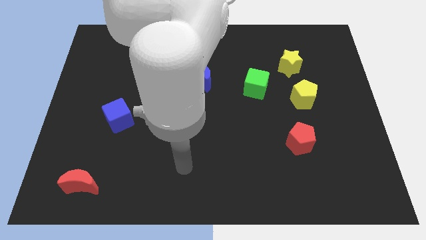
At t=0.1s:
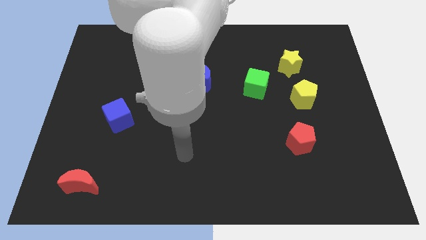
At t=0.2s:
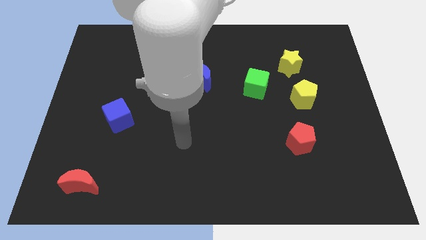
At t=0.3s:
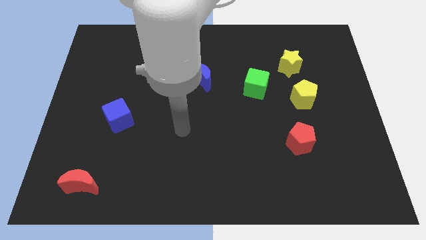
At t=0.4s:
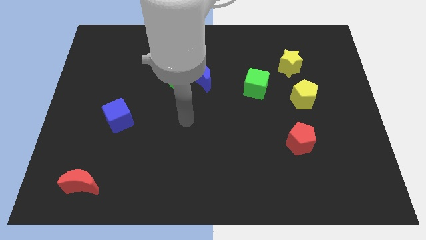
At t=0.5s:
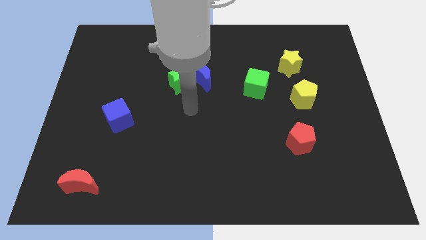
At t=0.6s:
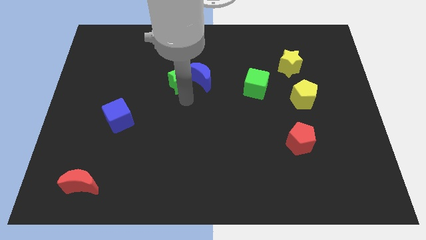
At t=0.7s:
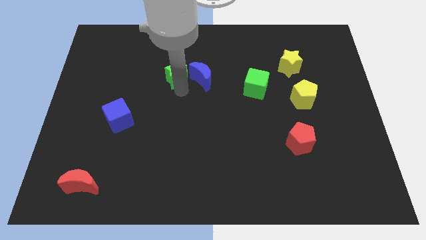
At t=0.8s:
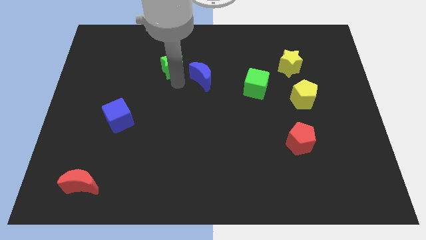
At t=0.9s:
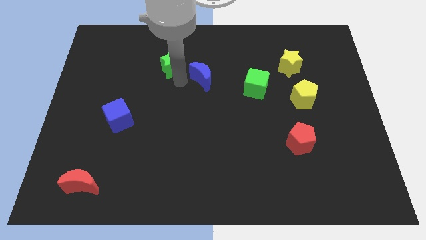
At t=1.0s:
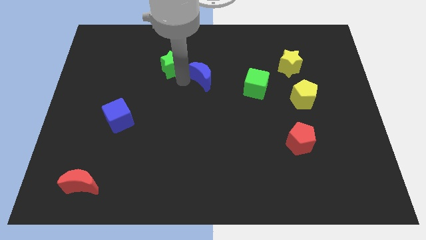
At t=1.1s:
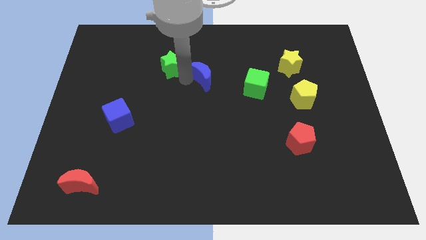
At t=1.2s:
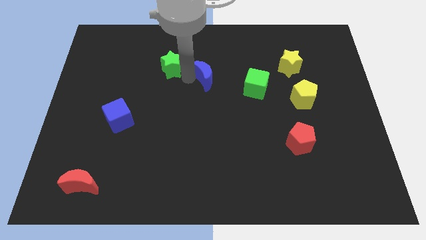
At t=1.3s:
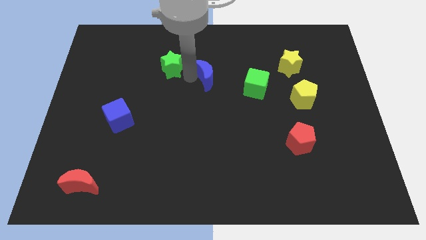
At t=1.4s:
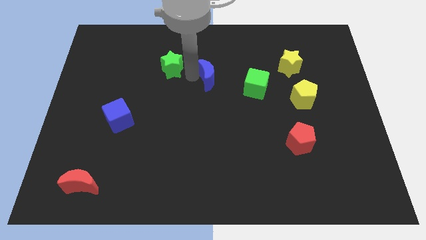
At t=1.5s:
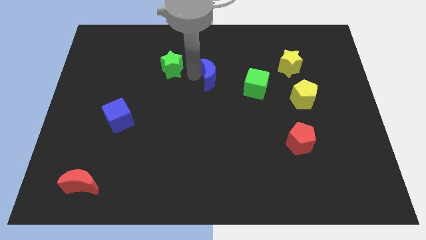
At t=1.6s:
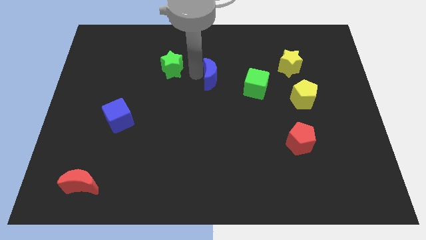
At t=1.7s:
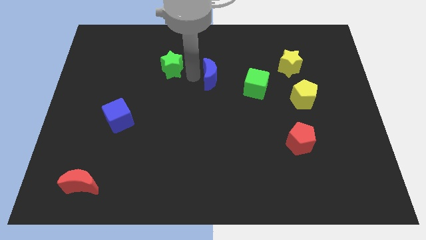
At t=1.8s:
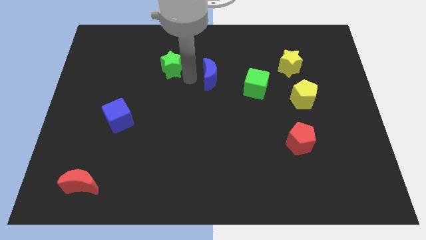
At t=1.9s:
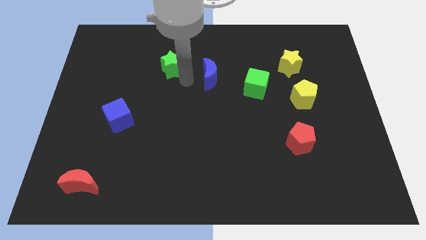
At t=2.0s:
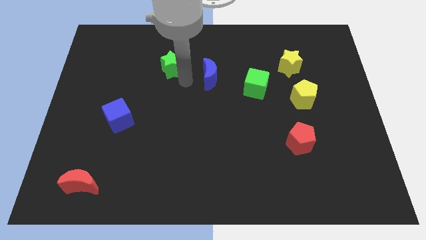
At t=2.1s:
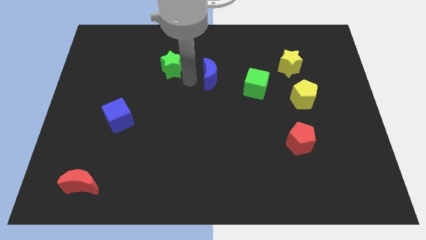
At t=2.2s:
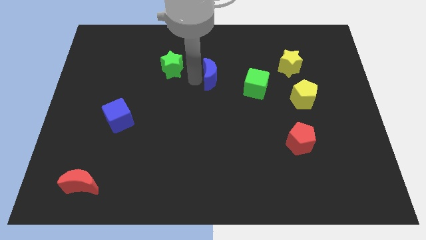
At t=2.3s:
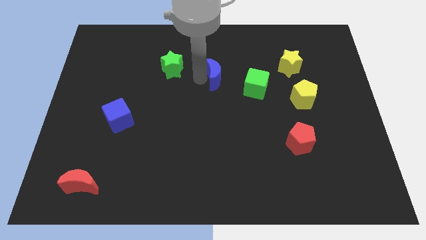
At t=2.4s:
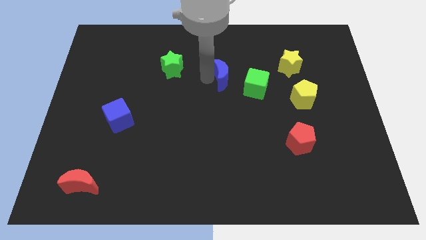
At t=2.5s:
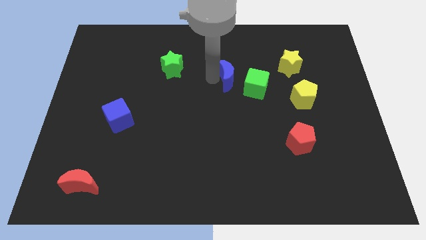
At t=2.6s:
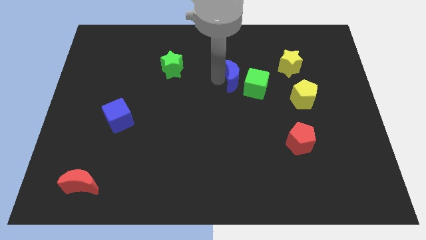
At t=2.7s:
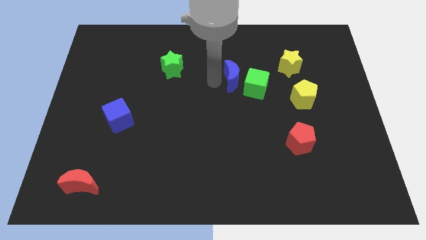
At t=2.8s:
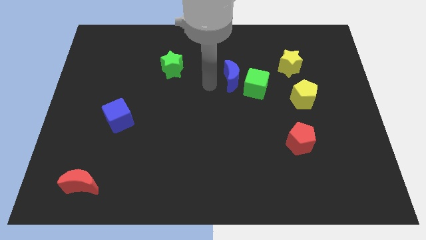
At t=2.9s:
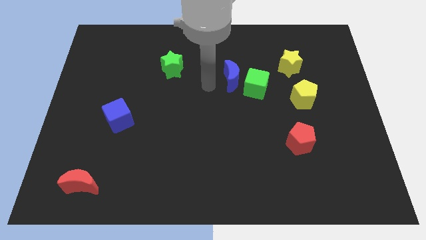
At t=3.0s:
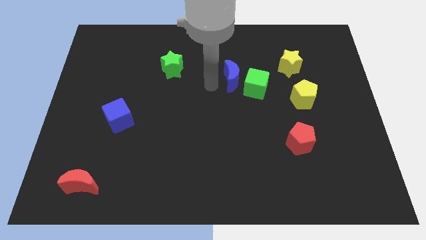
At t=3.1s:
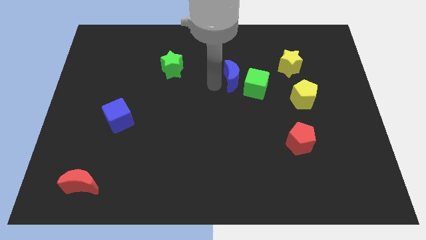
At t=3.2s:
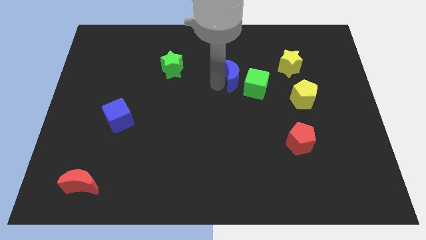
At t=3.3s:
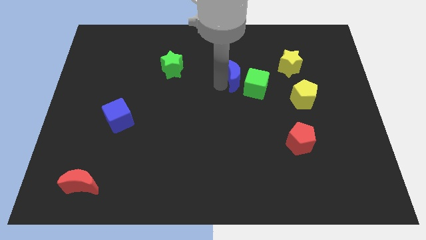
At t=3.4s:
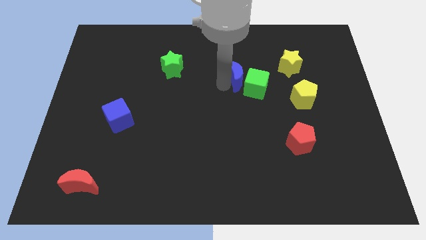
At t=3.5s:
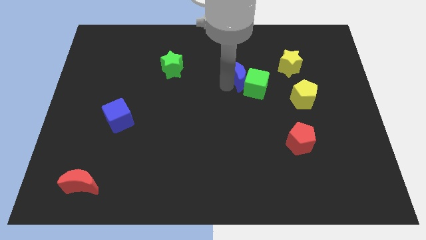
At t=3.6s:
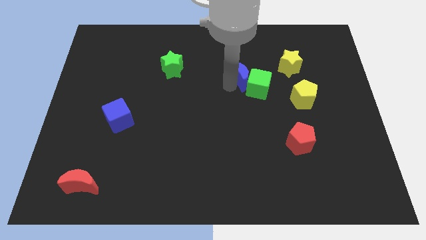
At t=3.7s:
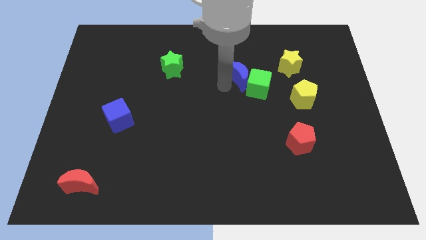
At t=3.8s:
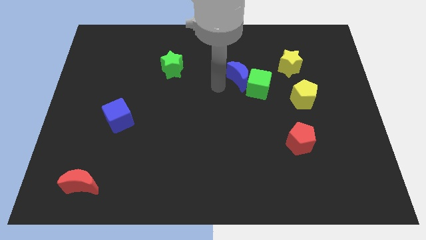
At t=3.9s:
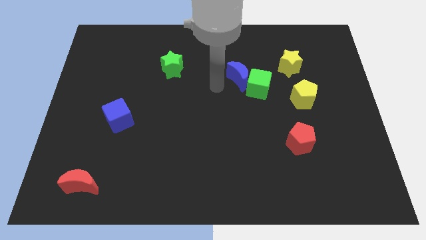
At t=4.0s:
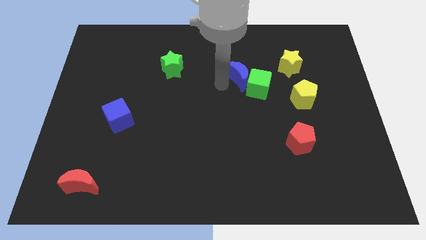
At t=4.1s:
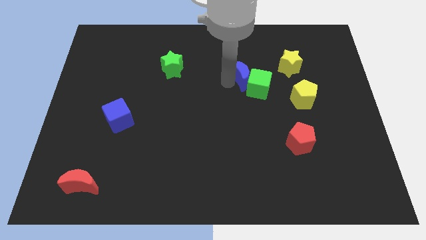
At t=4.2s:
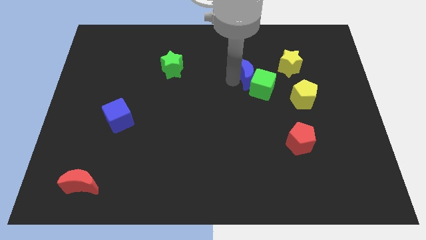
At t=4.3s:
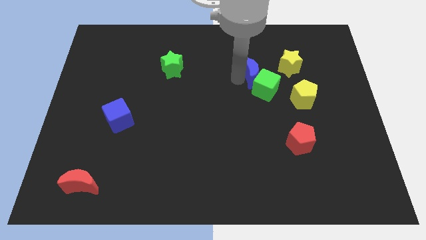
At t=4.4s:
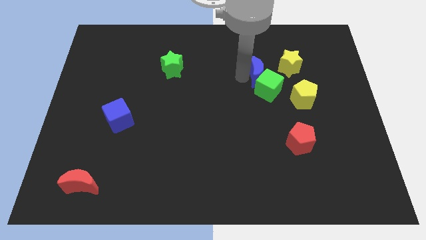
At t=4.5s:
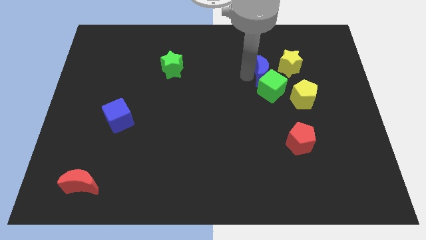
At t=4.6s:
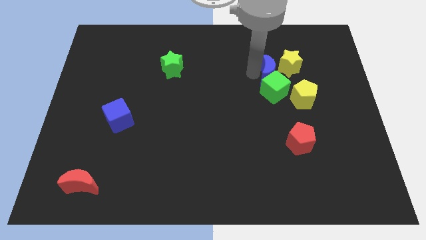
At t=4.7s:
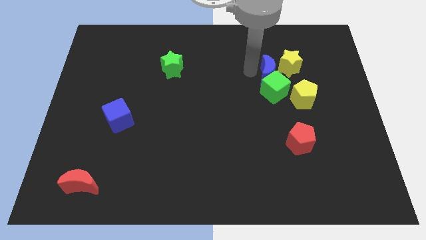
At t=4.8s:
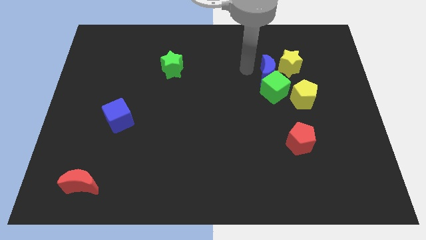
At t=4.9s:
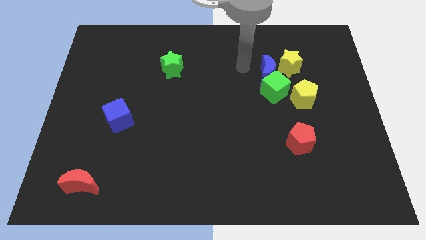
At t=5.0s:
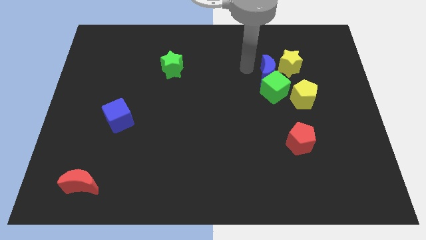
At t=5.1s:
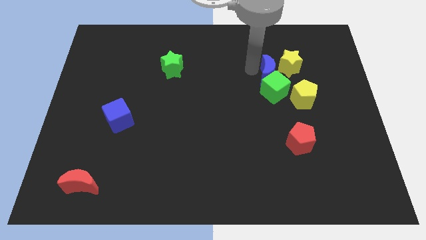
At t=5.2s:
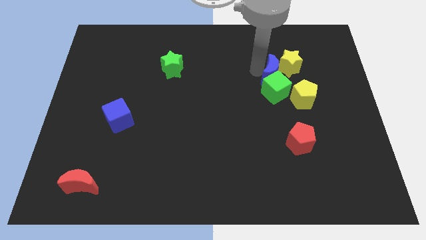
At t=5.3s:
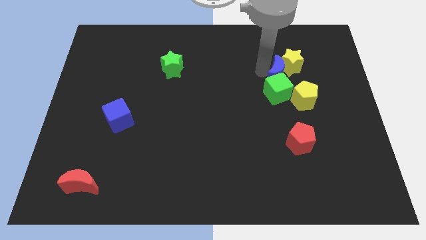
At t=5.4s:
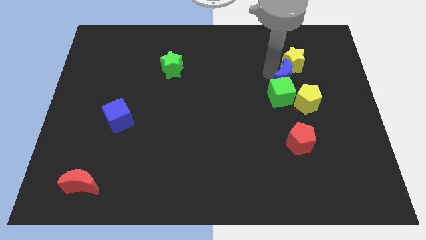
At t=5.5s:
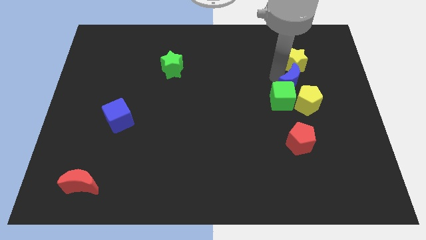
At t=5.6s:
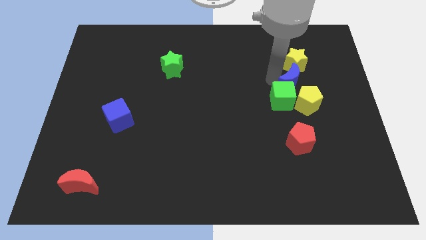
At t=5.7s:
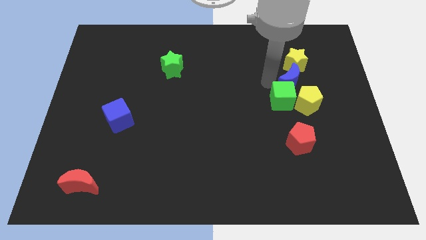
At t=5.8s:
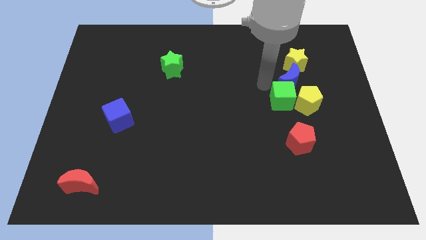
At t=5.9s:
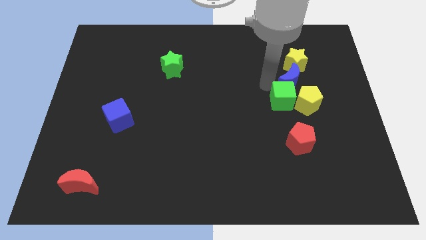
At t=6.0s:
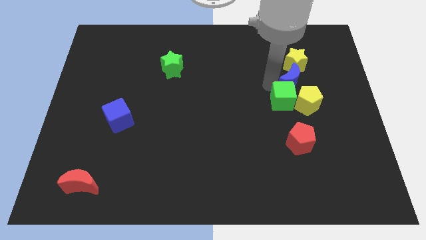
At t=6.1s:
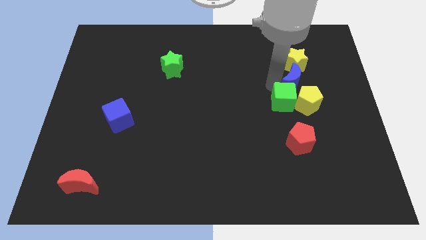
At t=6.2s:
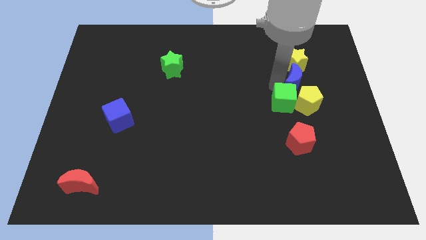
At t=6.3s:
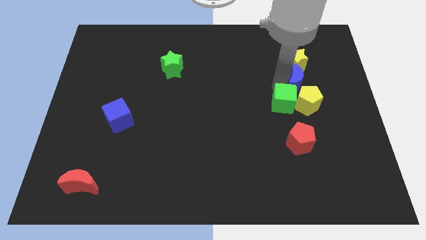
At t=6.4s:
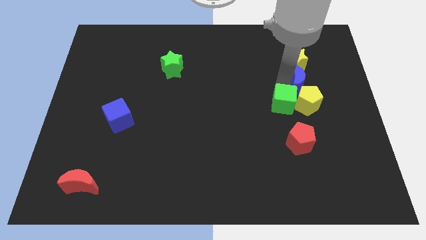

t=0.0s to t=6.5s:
move the blue moon to the bottom right of the yellow star

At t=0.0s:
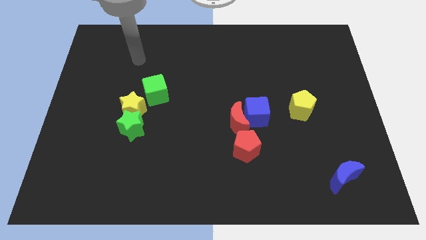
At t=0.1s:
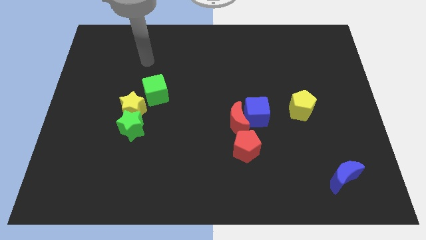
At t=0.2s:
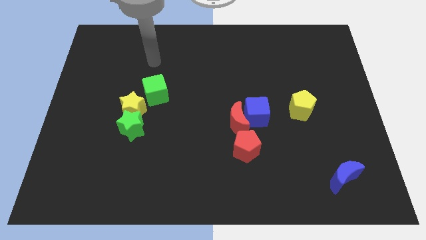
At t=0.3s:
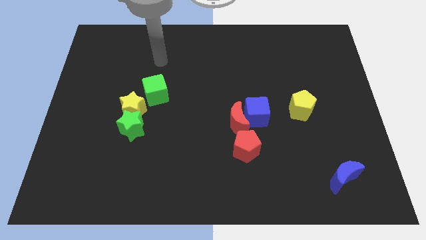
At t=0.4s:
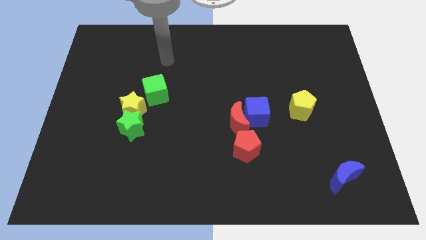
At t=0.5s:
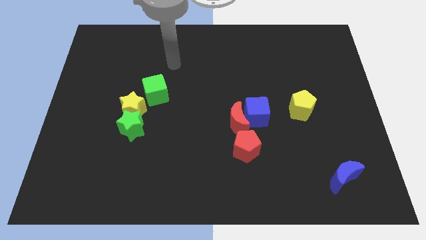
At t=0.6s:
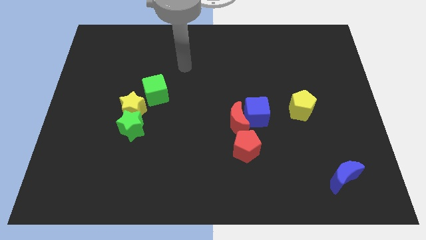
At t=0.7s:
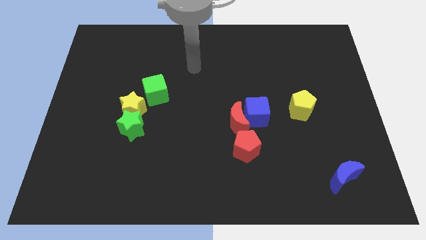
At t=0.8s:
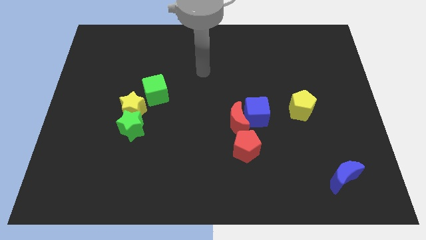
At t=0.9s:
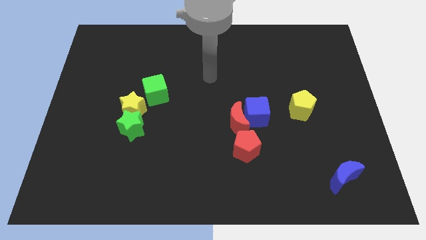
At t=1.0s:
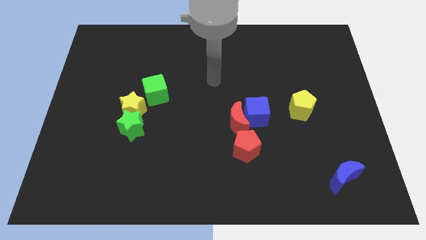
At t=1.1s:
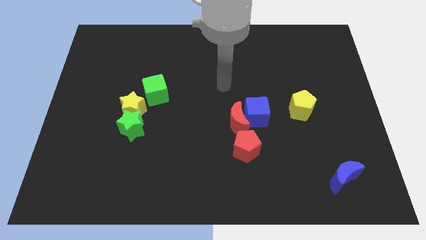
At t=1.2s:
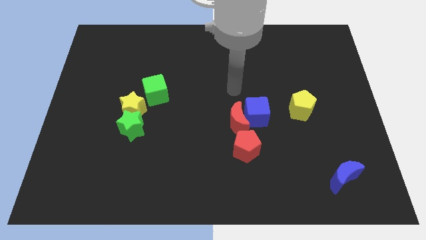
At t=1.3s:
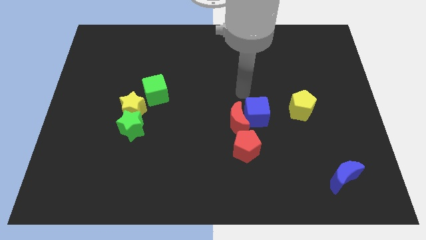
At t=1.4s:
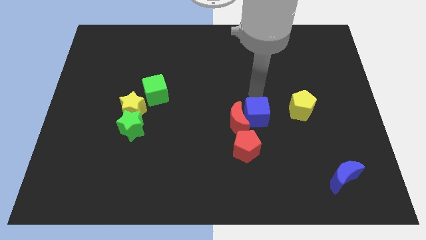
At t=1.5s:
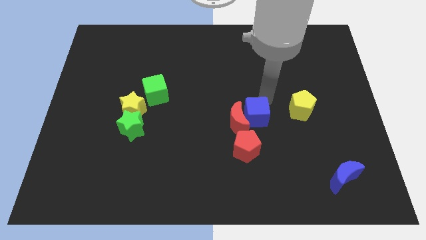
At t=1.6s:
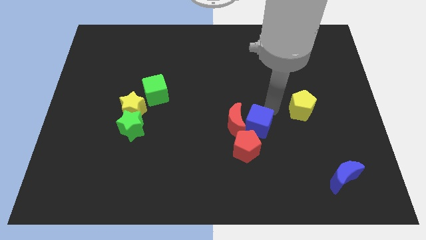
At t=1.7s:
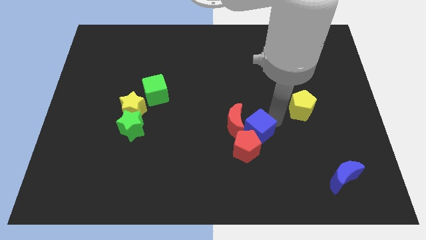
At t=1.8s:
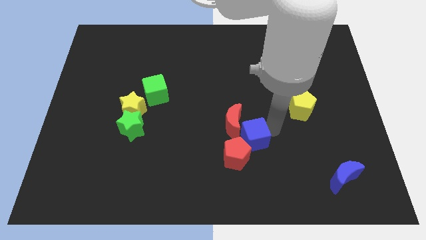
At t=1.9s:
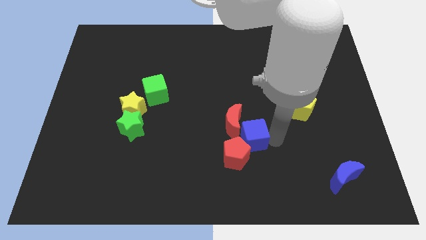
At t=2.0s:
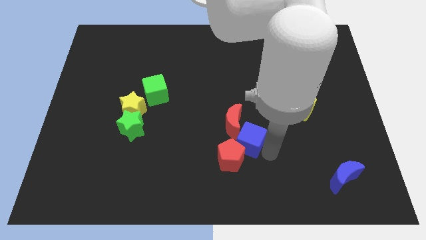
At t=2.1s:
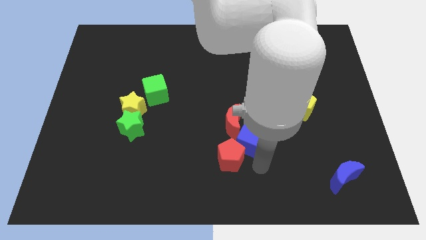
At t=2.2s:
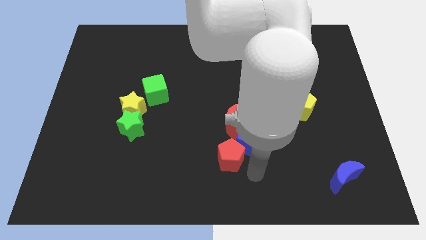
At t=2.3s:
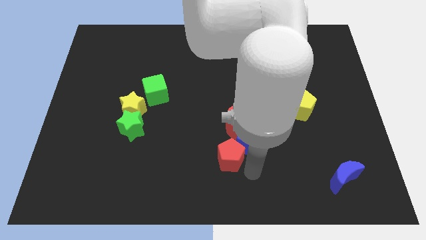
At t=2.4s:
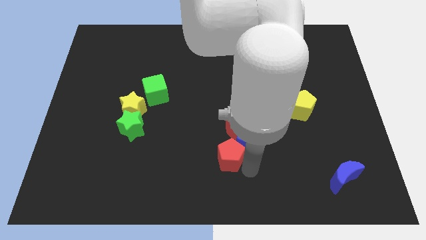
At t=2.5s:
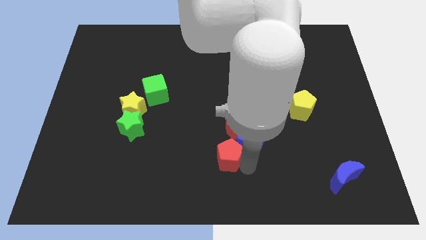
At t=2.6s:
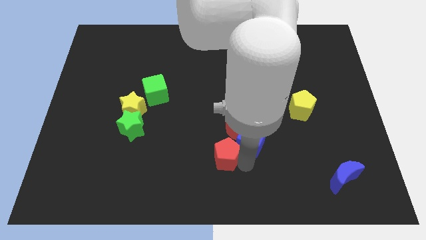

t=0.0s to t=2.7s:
put the red pentagon to the bottom left side of the red moon
